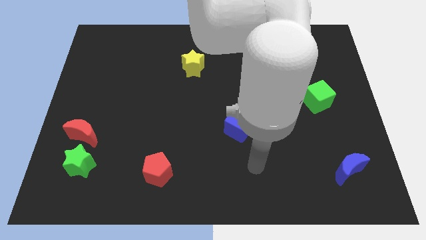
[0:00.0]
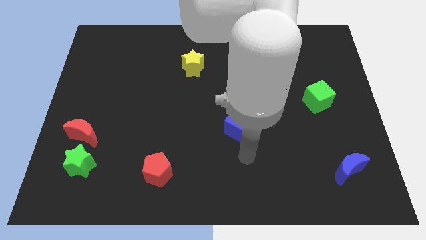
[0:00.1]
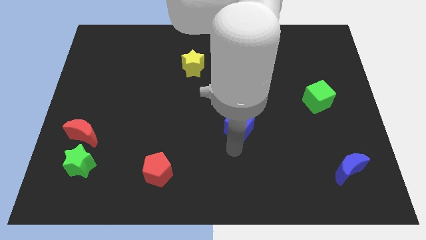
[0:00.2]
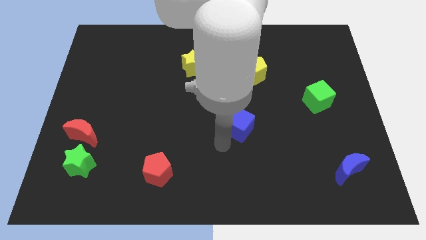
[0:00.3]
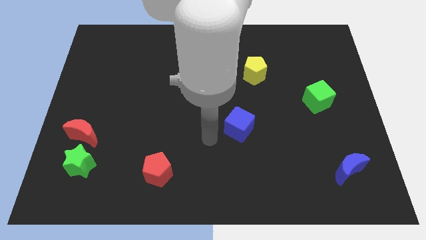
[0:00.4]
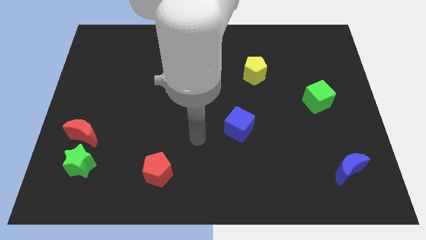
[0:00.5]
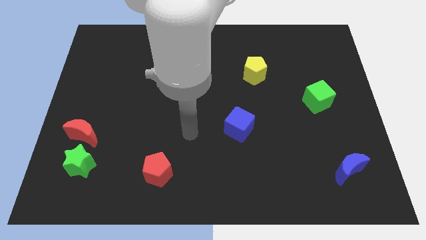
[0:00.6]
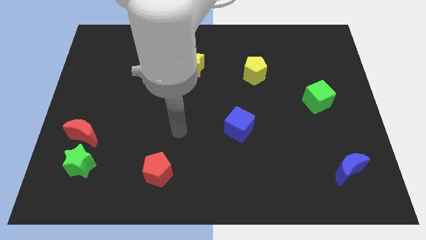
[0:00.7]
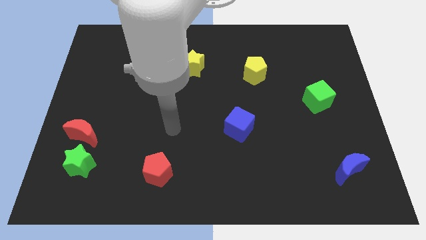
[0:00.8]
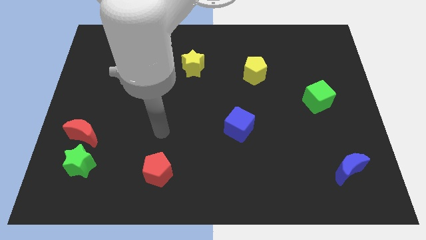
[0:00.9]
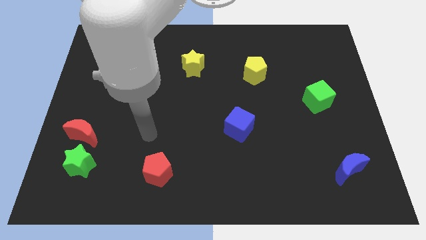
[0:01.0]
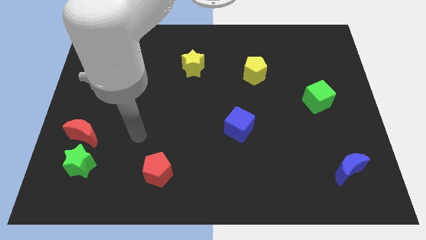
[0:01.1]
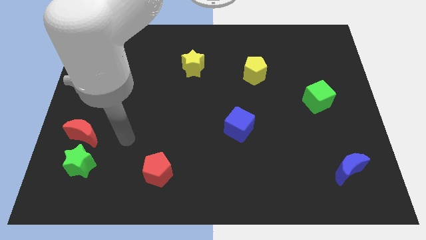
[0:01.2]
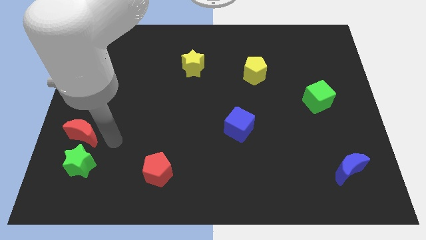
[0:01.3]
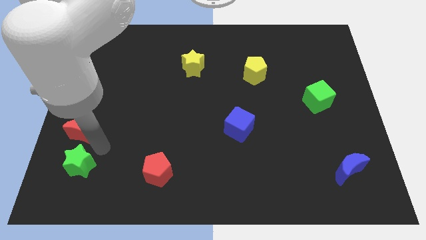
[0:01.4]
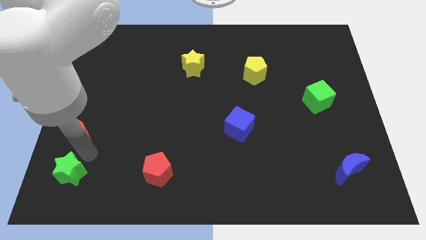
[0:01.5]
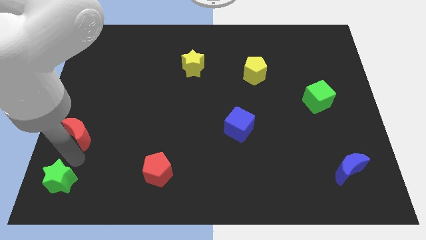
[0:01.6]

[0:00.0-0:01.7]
separate the red moon from the green star

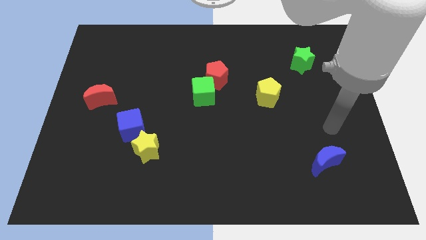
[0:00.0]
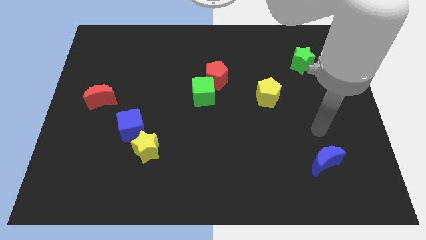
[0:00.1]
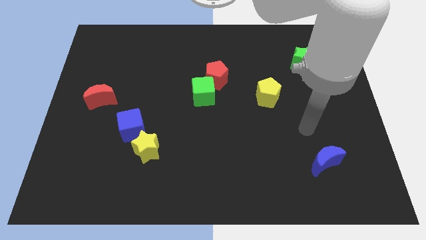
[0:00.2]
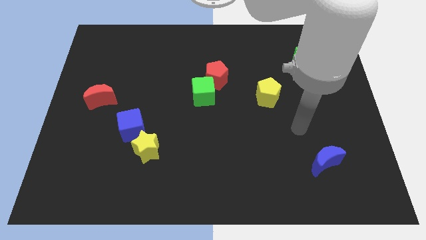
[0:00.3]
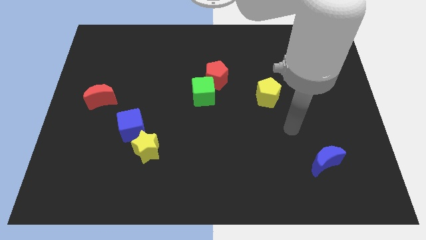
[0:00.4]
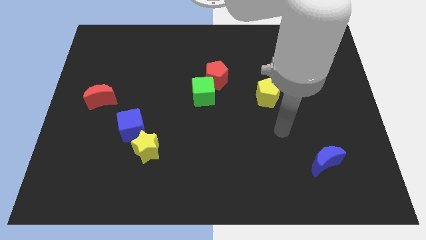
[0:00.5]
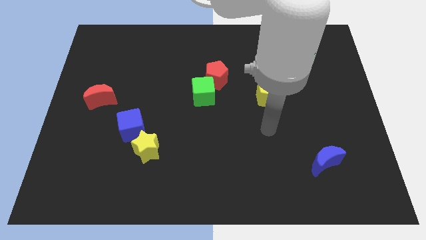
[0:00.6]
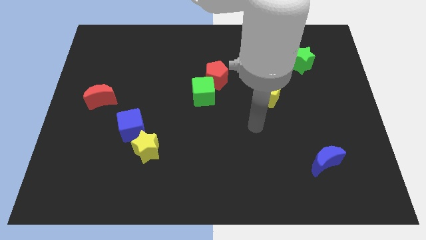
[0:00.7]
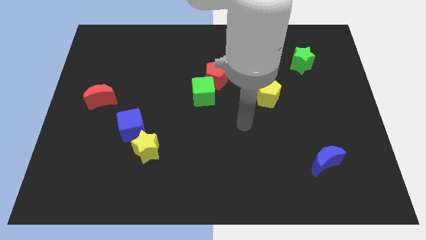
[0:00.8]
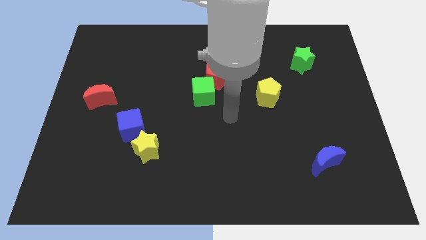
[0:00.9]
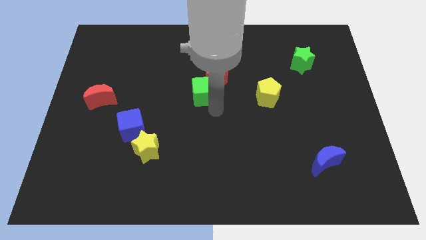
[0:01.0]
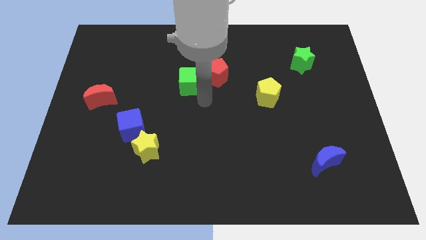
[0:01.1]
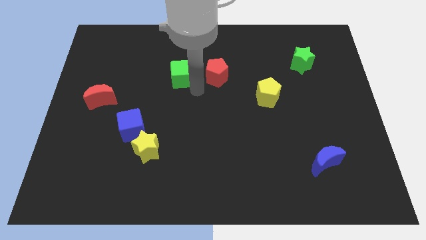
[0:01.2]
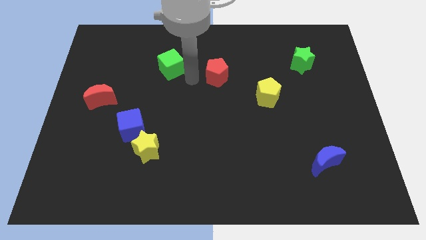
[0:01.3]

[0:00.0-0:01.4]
pull the red pentagon apart from the green cube

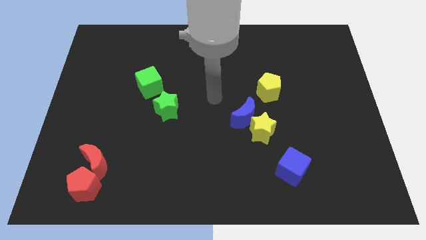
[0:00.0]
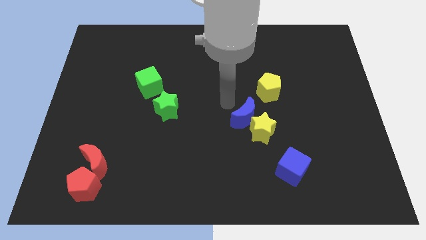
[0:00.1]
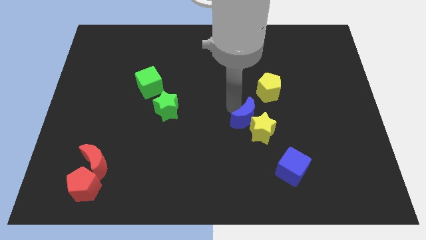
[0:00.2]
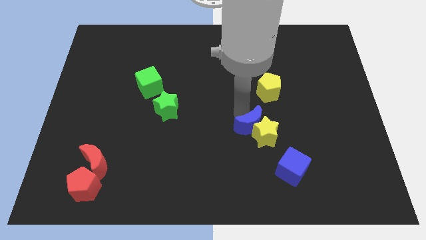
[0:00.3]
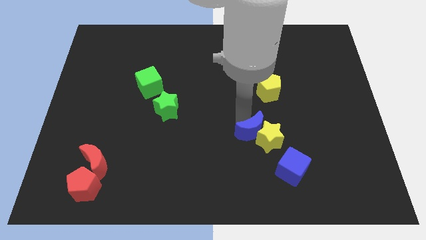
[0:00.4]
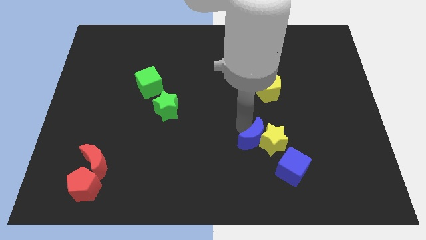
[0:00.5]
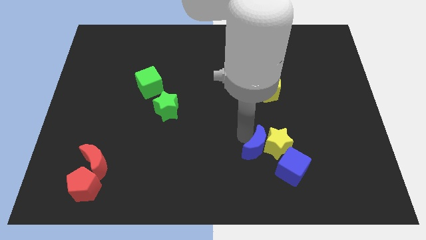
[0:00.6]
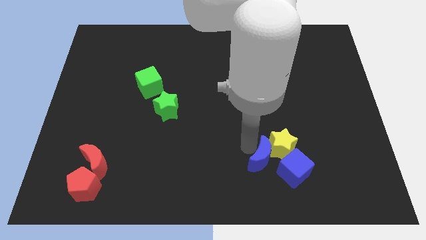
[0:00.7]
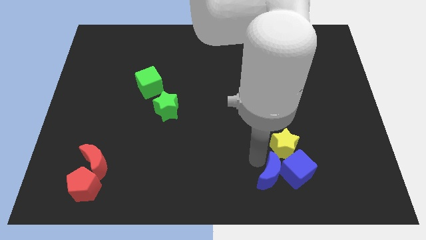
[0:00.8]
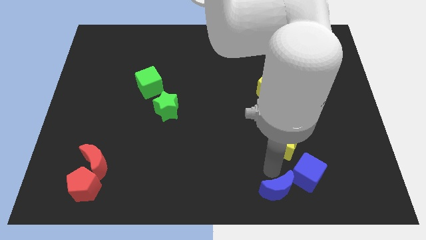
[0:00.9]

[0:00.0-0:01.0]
move the yellow star away from the blue moon

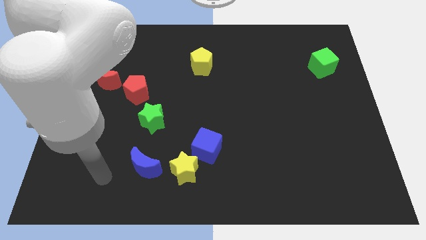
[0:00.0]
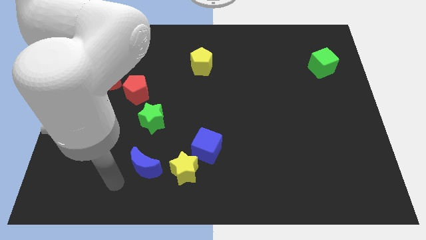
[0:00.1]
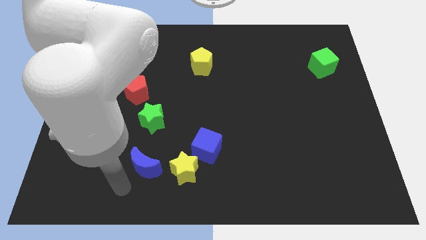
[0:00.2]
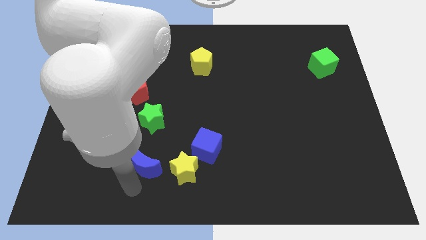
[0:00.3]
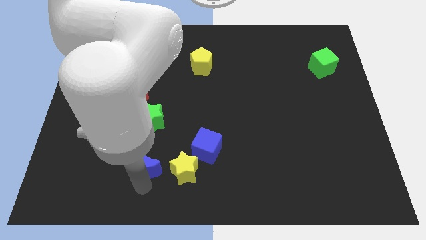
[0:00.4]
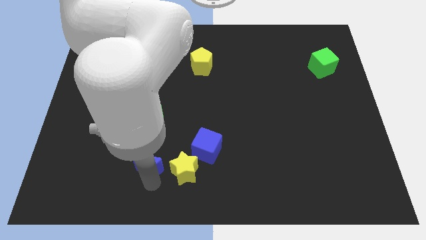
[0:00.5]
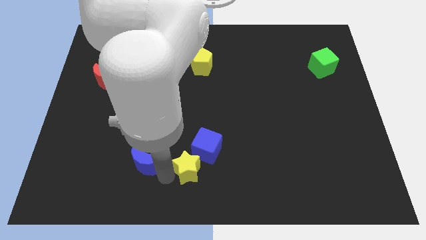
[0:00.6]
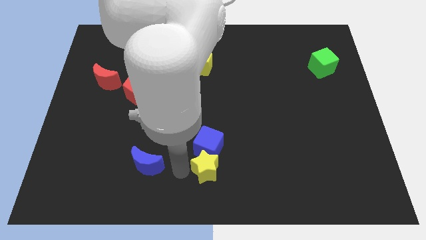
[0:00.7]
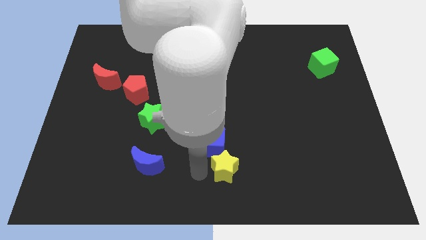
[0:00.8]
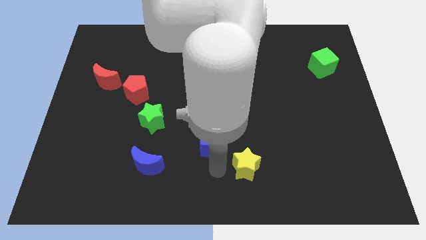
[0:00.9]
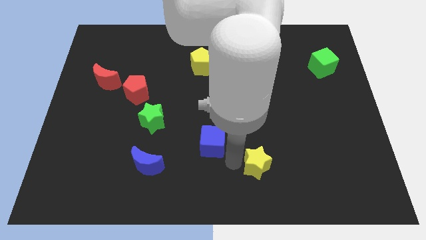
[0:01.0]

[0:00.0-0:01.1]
separate the blue cube from the yellow star

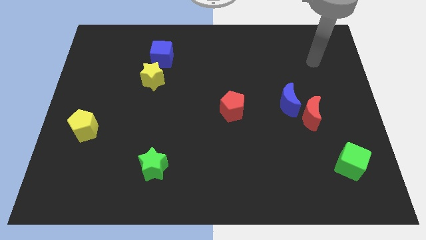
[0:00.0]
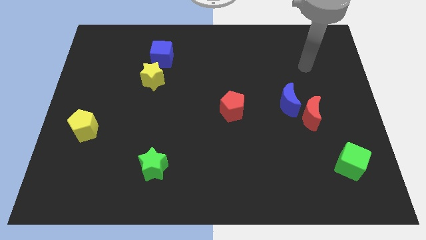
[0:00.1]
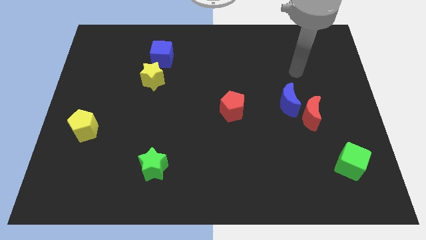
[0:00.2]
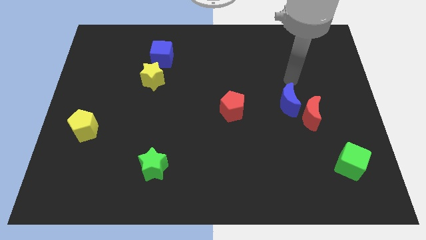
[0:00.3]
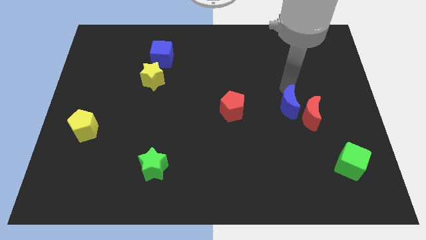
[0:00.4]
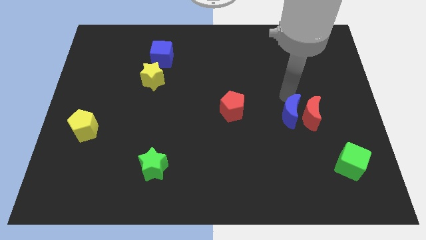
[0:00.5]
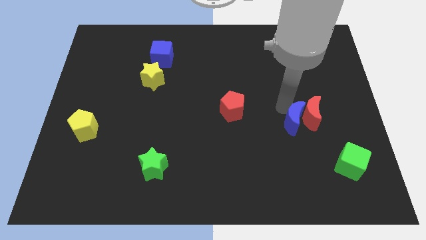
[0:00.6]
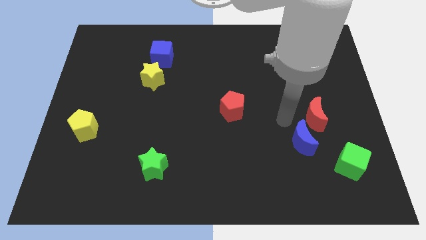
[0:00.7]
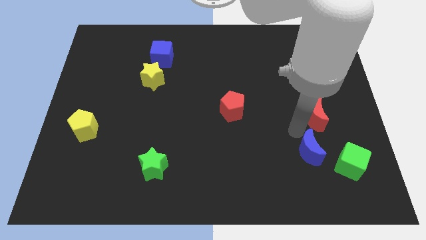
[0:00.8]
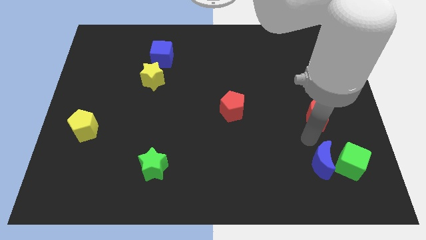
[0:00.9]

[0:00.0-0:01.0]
pull the red moon apart from the blue moon

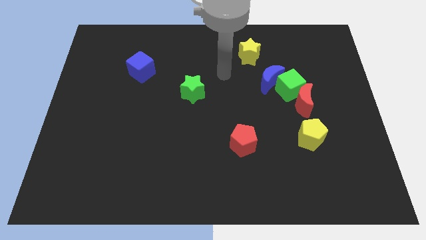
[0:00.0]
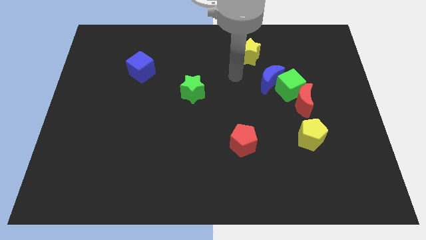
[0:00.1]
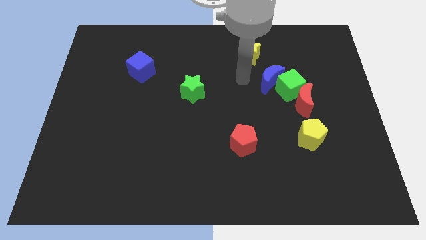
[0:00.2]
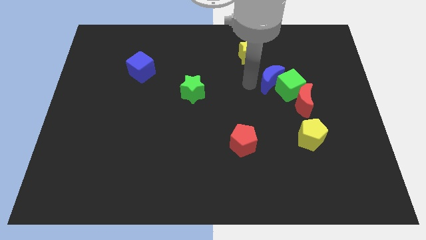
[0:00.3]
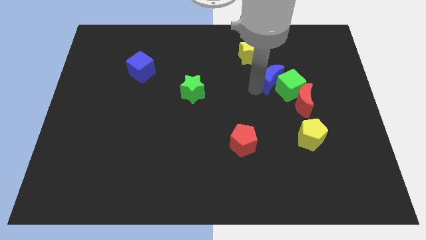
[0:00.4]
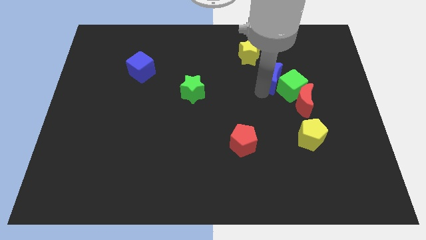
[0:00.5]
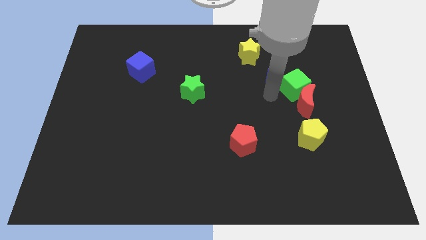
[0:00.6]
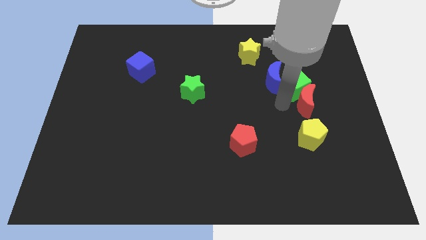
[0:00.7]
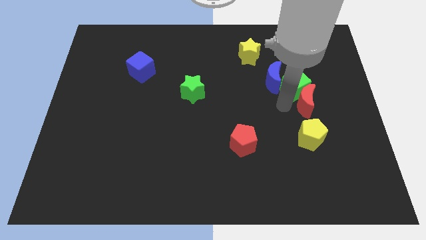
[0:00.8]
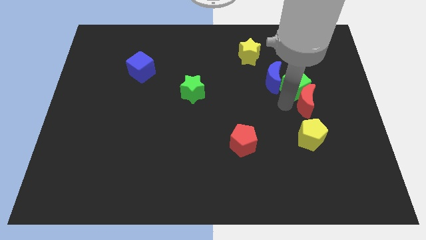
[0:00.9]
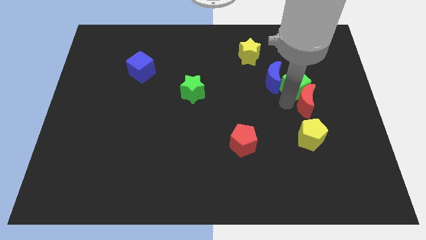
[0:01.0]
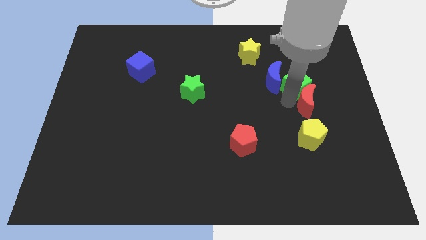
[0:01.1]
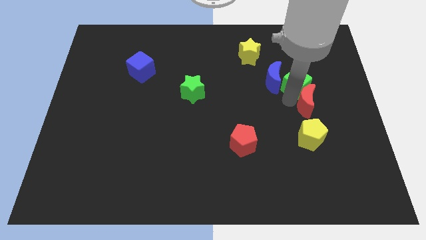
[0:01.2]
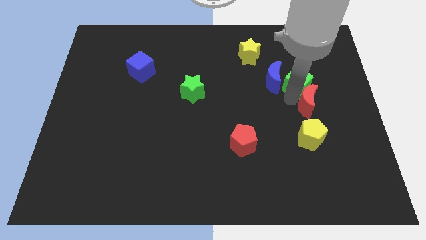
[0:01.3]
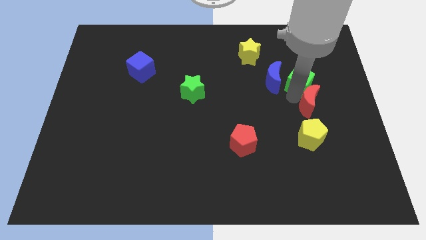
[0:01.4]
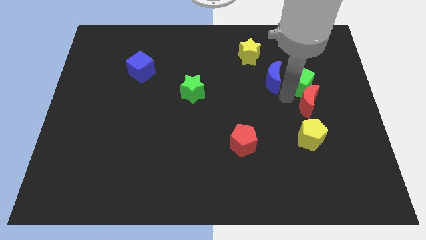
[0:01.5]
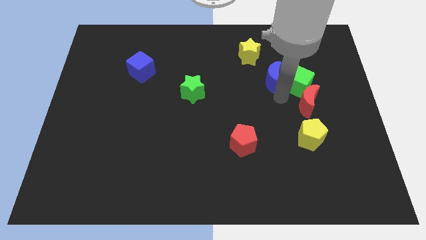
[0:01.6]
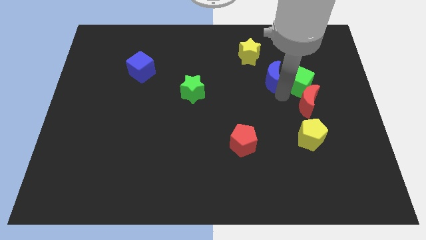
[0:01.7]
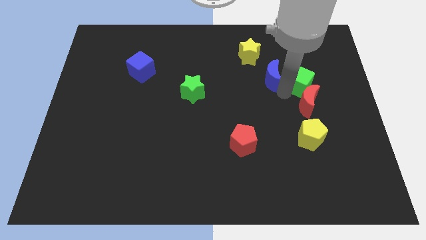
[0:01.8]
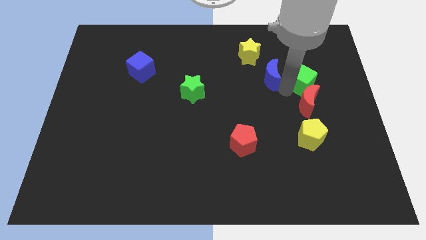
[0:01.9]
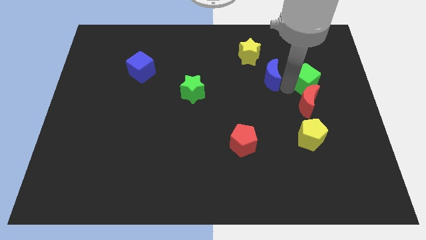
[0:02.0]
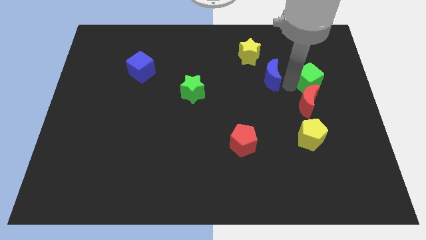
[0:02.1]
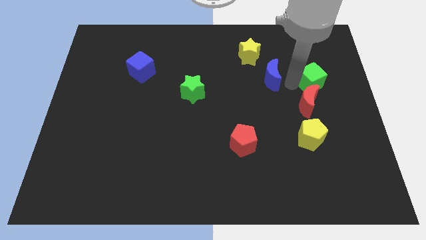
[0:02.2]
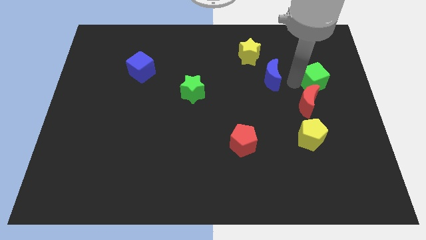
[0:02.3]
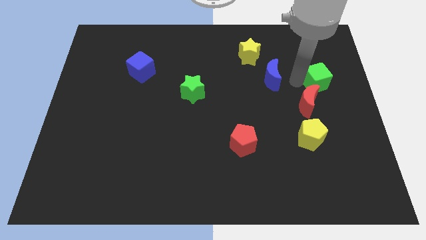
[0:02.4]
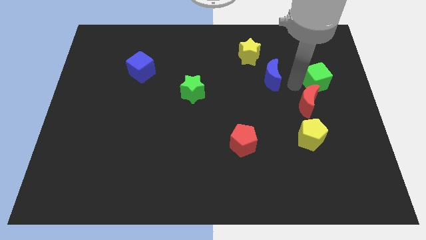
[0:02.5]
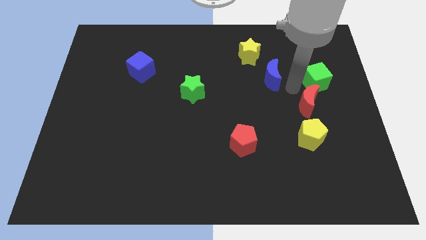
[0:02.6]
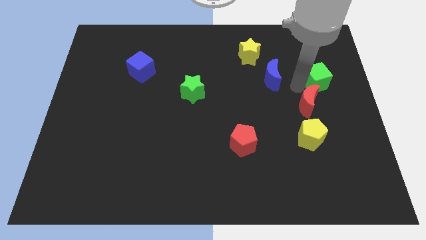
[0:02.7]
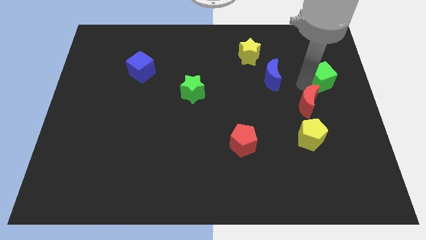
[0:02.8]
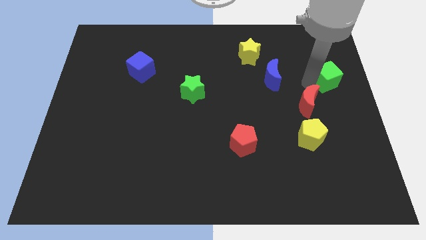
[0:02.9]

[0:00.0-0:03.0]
pull the green cube apart from the blue moon and red moon

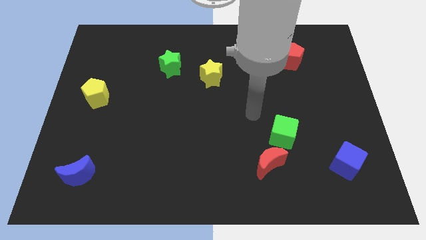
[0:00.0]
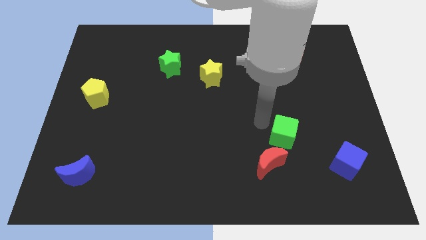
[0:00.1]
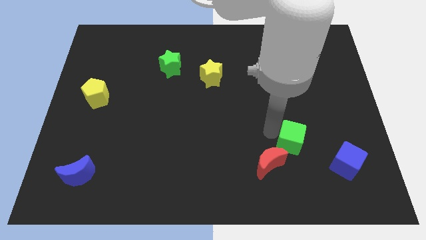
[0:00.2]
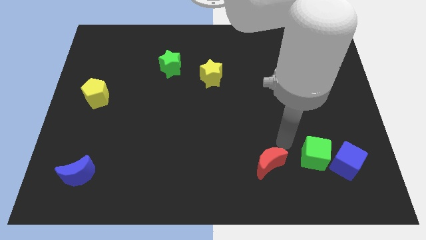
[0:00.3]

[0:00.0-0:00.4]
separate the red moon from the green cube
